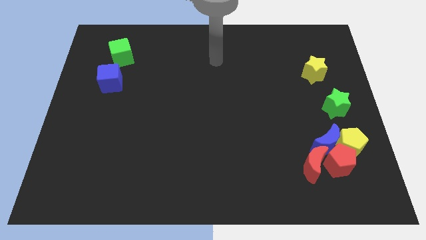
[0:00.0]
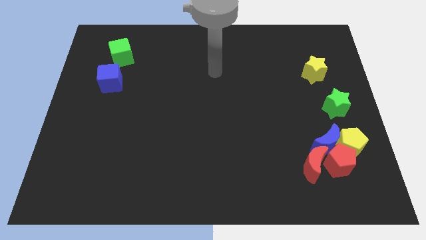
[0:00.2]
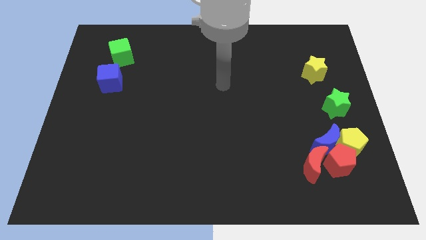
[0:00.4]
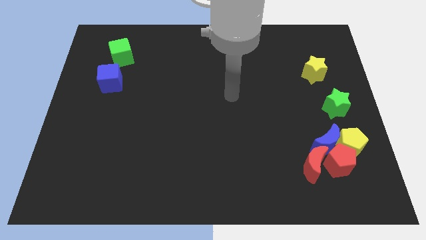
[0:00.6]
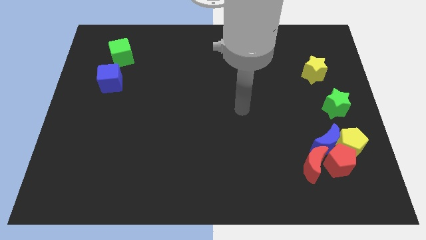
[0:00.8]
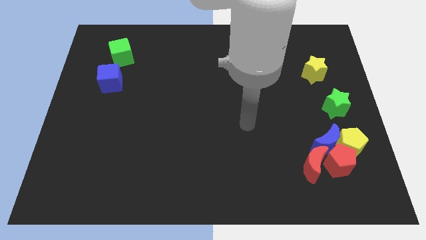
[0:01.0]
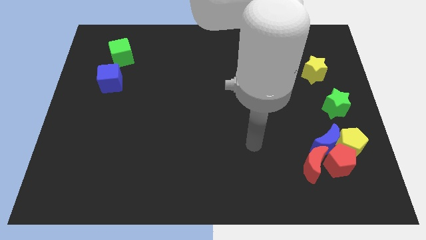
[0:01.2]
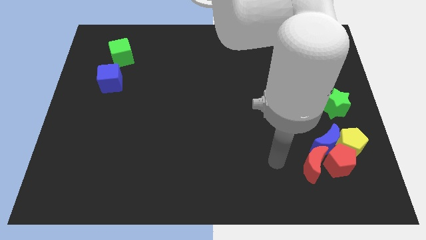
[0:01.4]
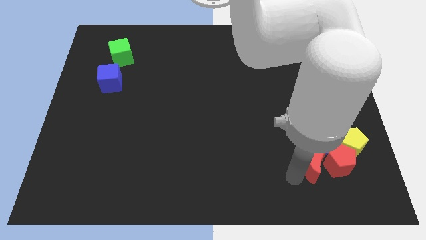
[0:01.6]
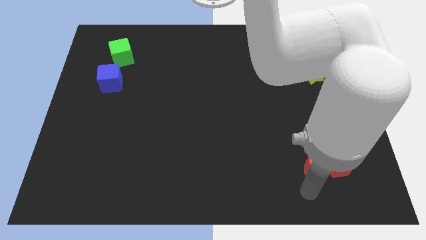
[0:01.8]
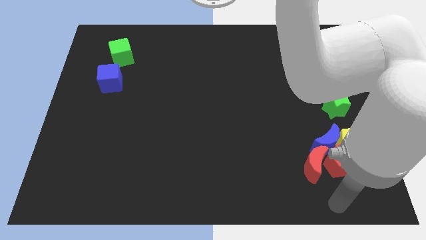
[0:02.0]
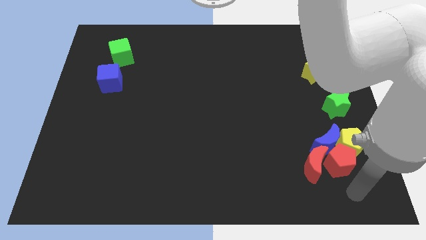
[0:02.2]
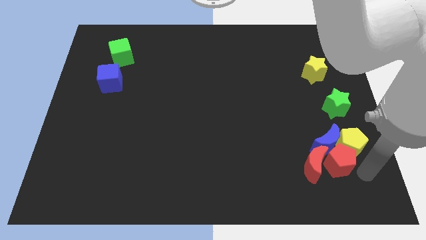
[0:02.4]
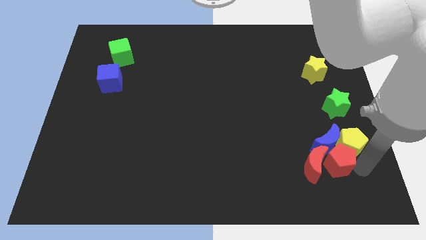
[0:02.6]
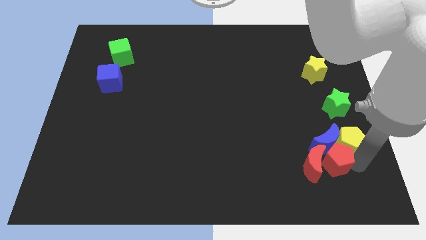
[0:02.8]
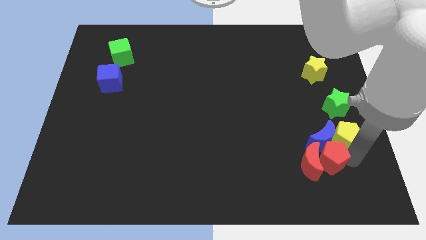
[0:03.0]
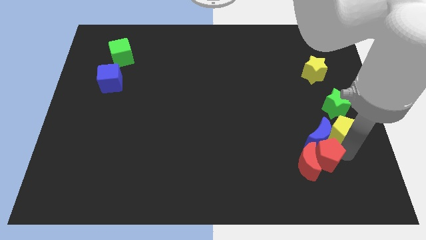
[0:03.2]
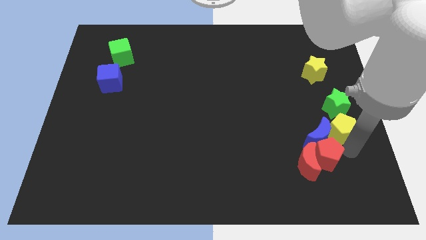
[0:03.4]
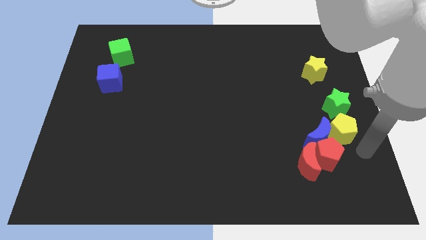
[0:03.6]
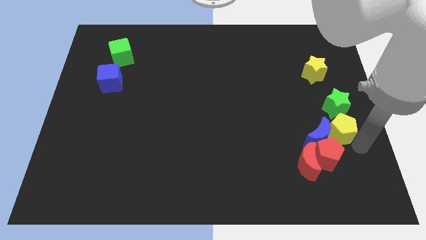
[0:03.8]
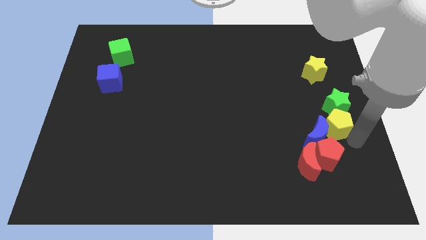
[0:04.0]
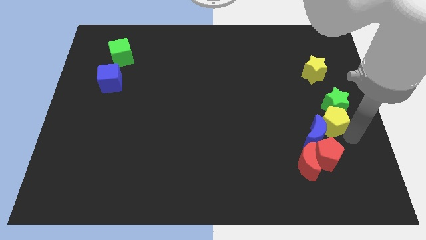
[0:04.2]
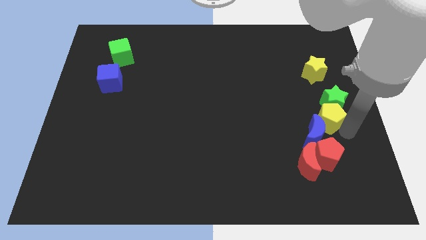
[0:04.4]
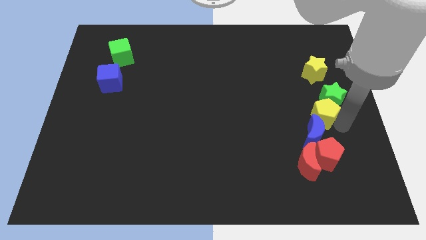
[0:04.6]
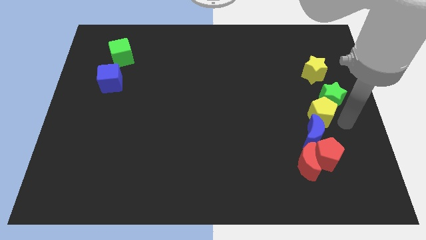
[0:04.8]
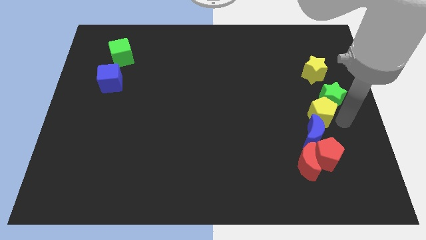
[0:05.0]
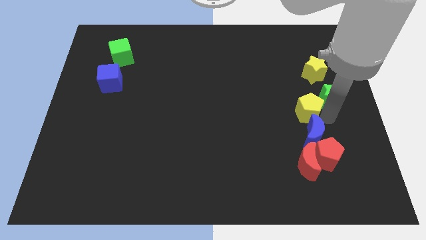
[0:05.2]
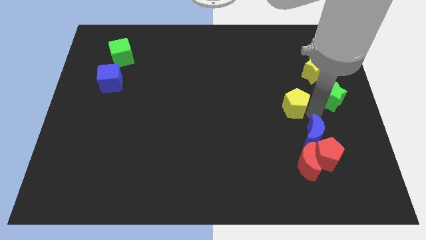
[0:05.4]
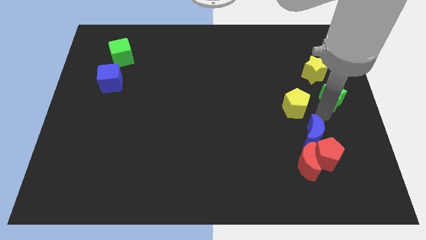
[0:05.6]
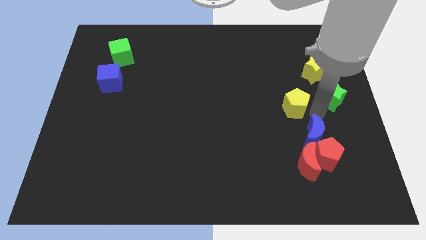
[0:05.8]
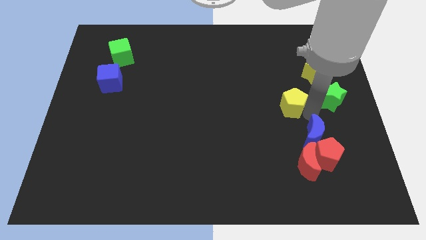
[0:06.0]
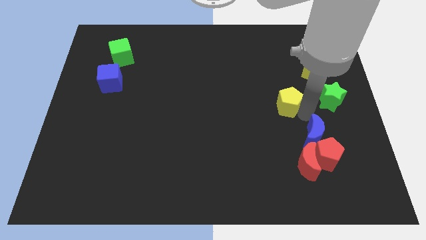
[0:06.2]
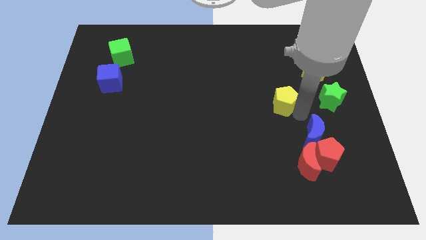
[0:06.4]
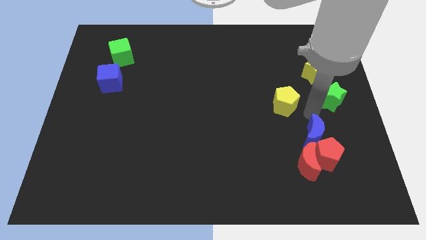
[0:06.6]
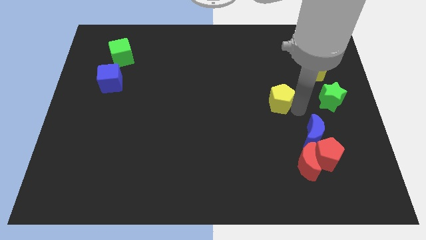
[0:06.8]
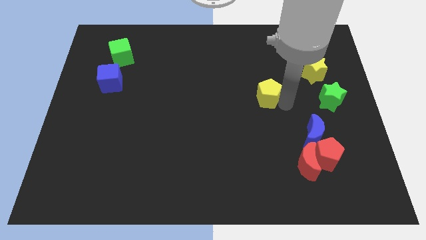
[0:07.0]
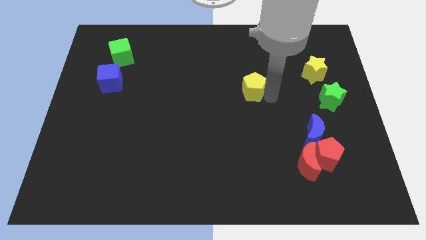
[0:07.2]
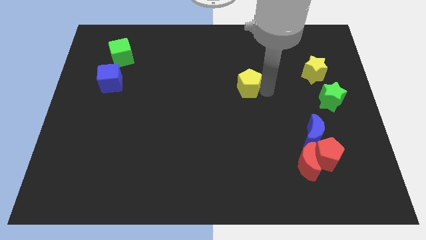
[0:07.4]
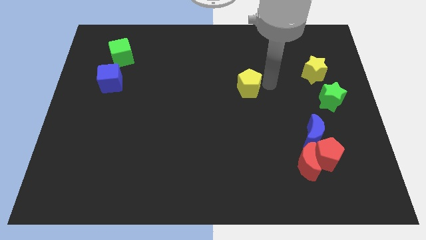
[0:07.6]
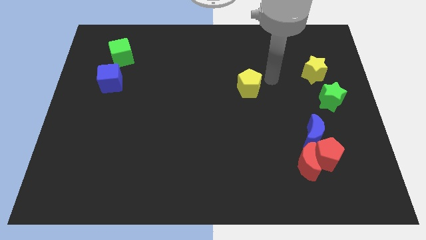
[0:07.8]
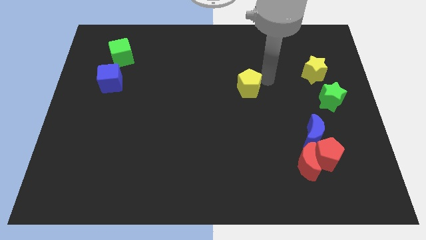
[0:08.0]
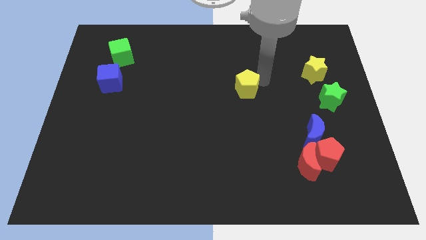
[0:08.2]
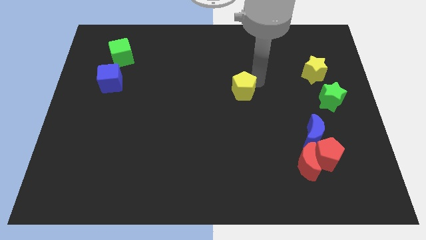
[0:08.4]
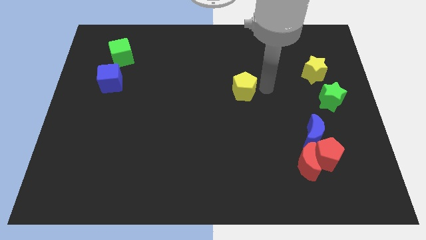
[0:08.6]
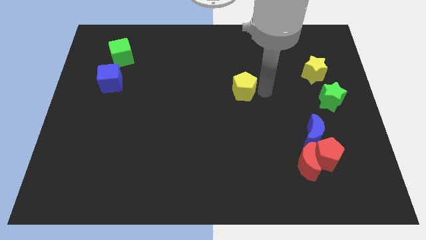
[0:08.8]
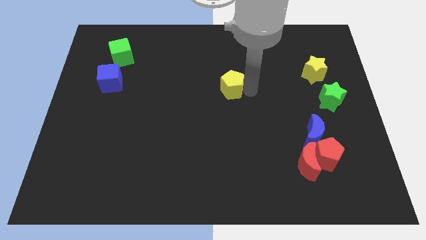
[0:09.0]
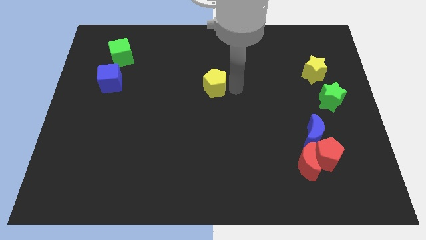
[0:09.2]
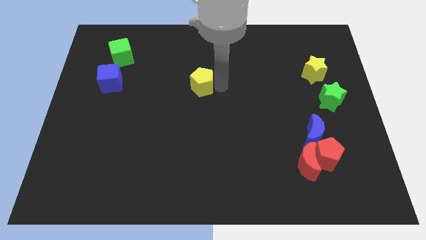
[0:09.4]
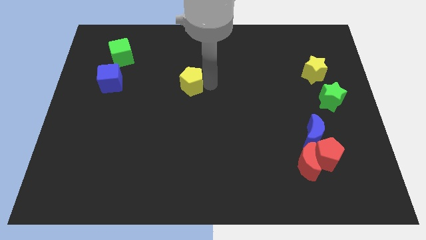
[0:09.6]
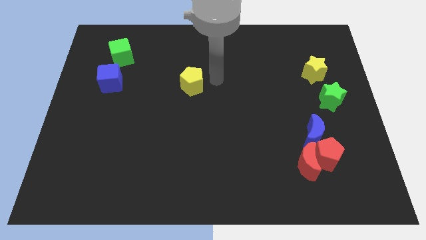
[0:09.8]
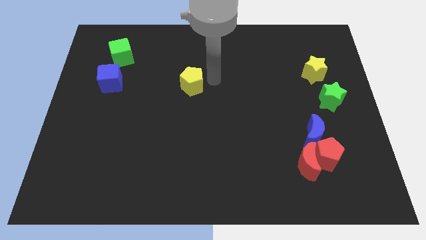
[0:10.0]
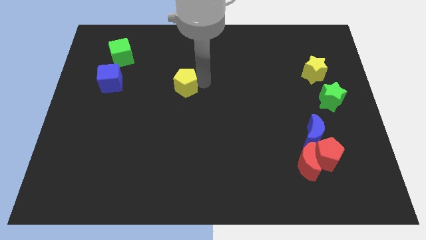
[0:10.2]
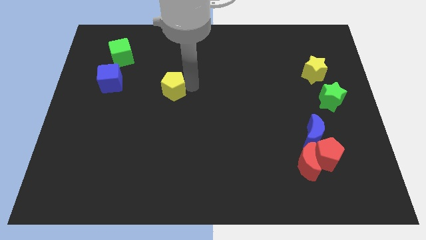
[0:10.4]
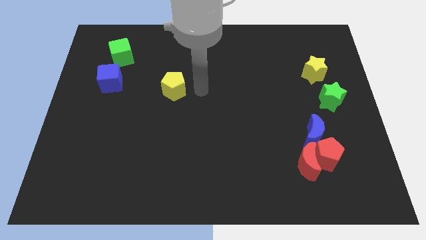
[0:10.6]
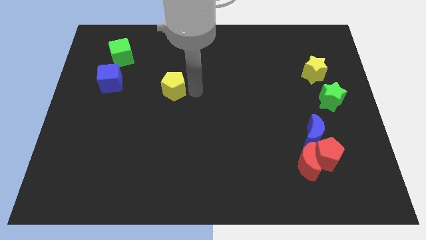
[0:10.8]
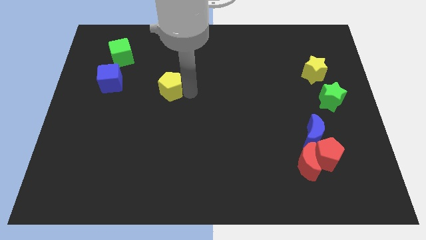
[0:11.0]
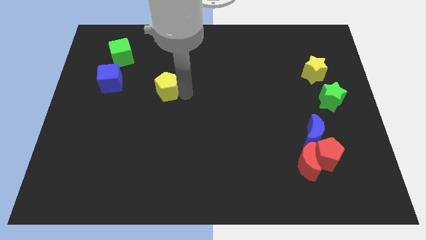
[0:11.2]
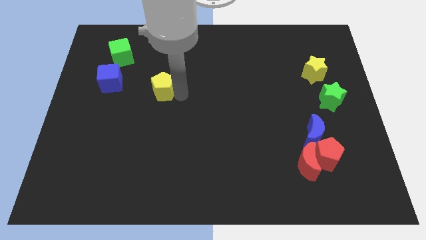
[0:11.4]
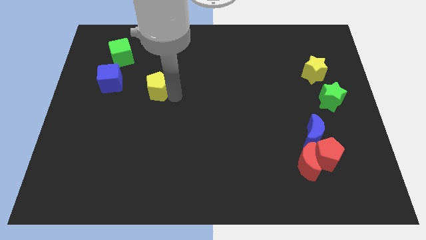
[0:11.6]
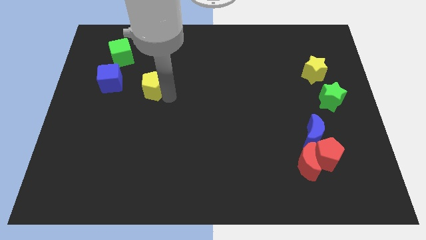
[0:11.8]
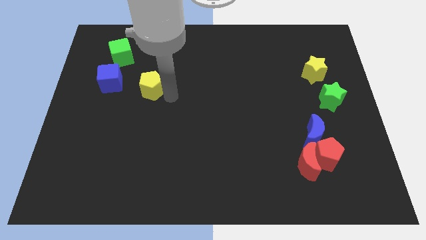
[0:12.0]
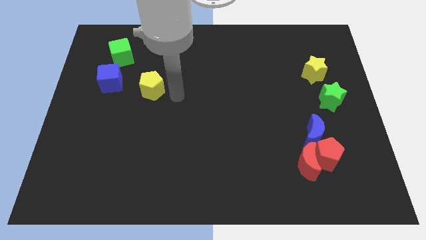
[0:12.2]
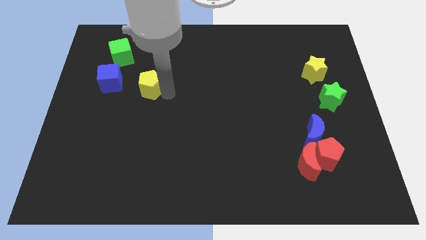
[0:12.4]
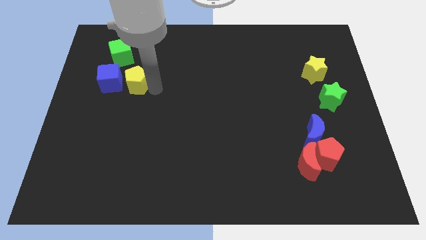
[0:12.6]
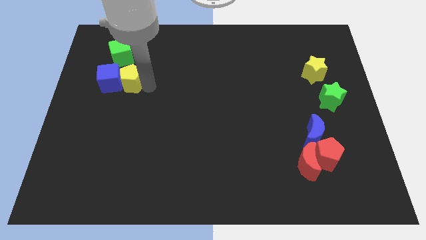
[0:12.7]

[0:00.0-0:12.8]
move the yellow pentagon towards the blue cube

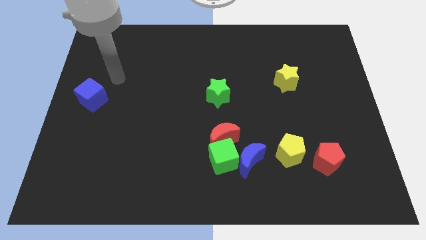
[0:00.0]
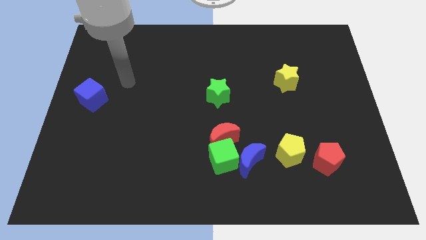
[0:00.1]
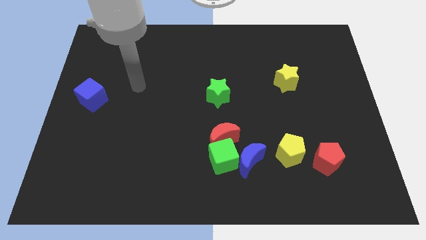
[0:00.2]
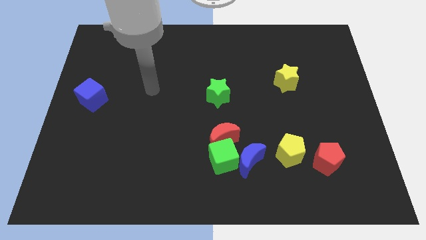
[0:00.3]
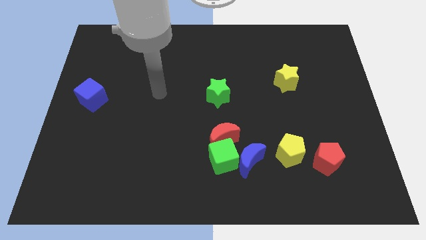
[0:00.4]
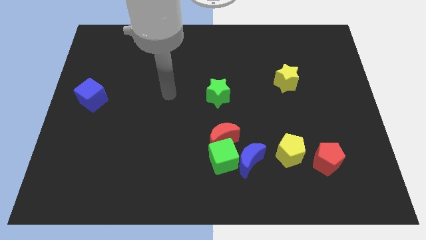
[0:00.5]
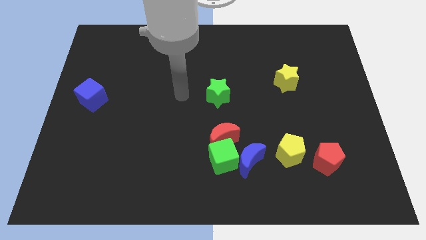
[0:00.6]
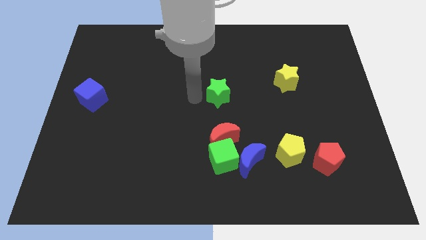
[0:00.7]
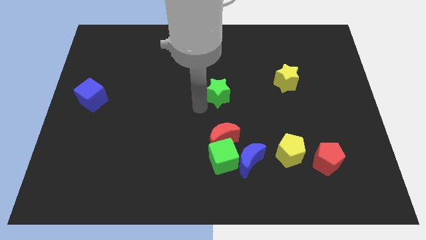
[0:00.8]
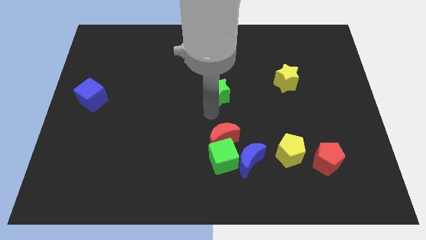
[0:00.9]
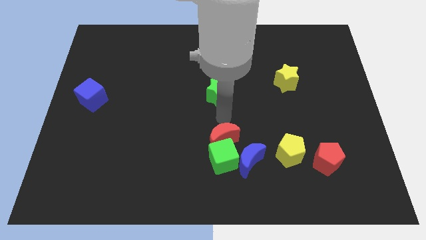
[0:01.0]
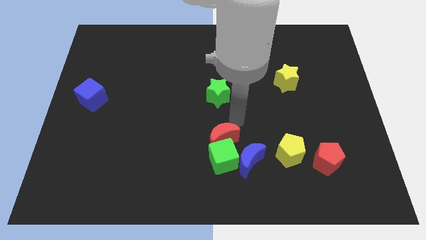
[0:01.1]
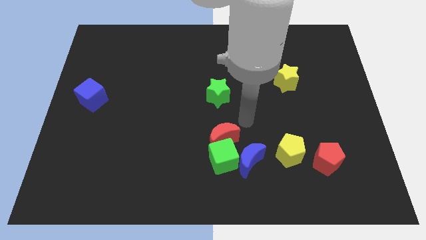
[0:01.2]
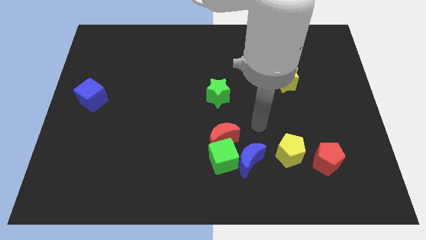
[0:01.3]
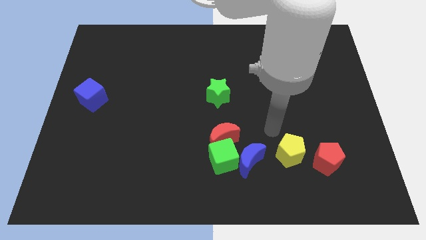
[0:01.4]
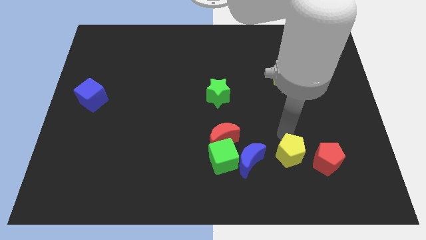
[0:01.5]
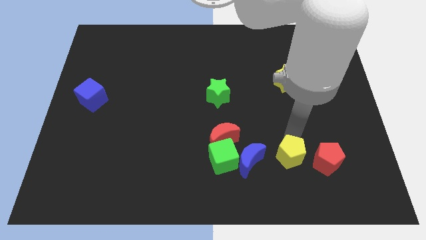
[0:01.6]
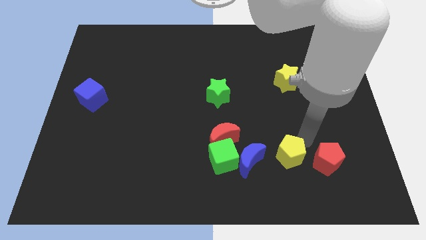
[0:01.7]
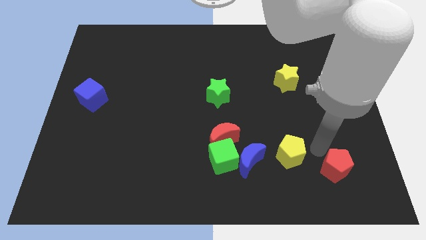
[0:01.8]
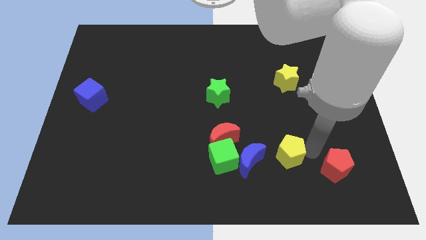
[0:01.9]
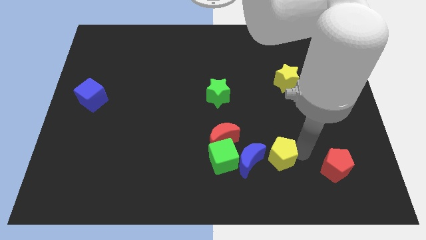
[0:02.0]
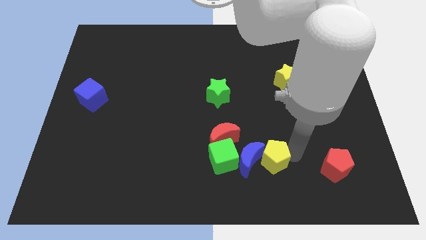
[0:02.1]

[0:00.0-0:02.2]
move the yellow pentagon to the blue moon
